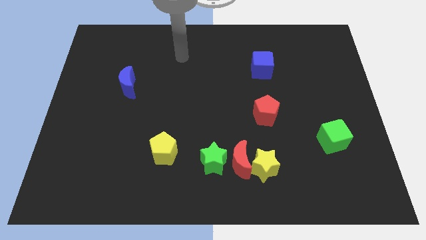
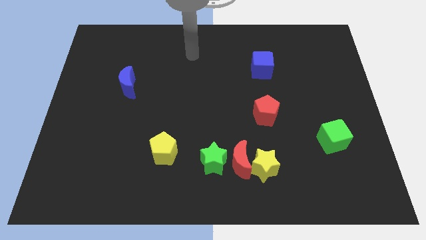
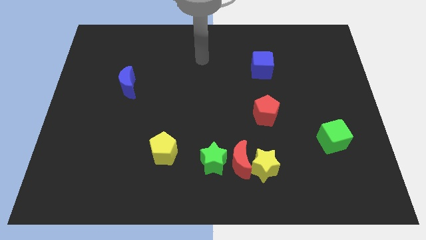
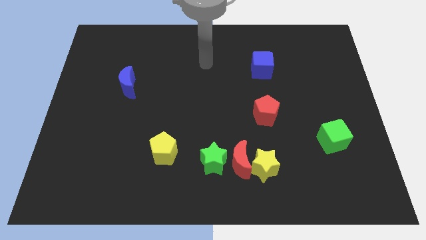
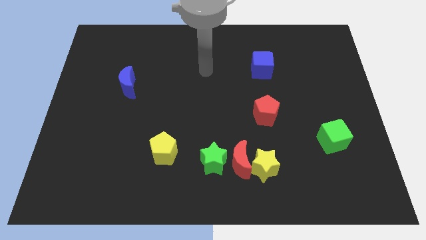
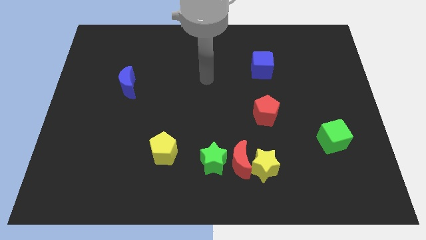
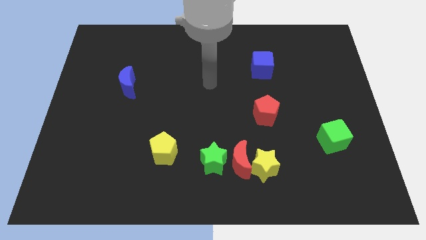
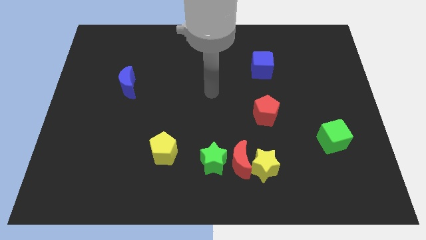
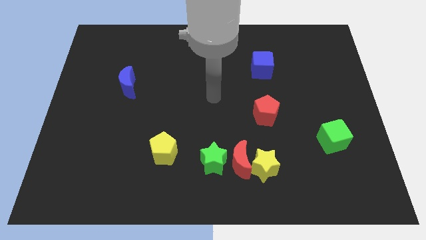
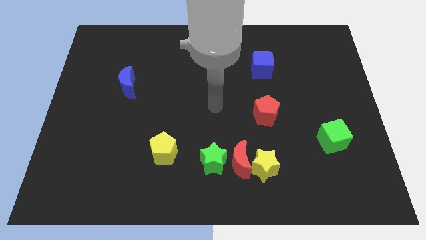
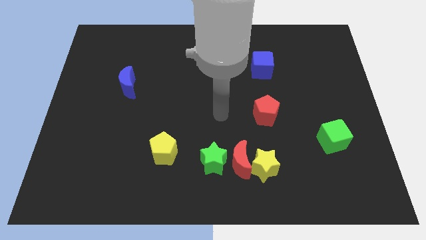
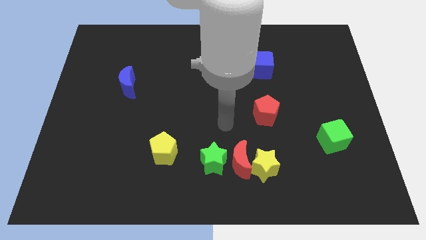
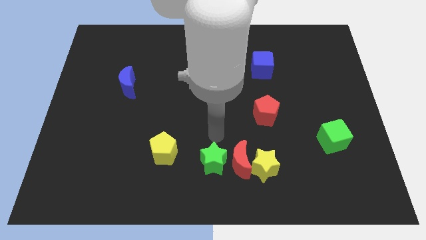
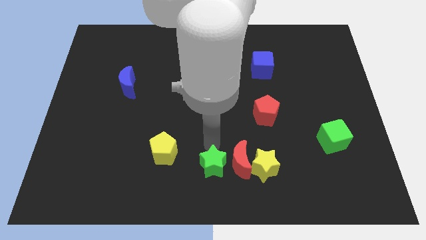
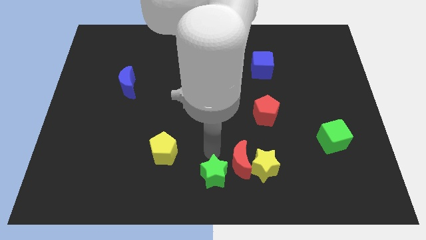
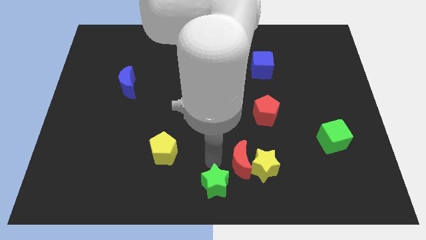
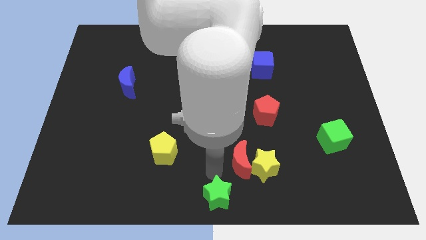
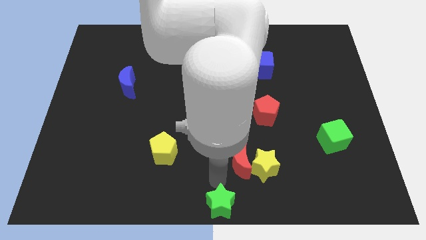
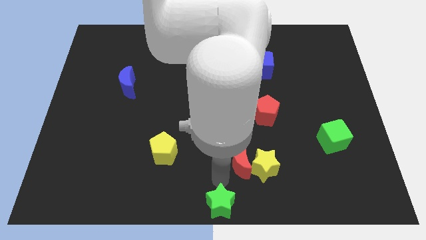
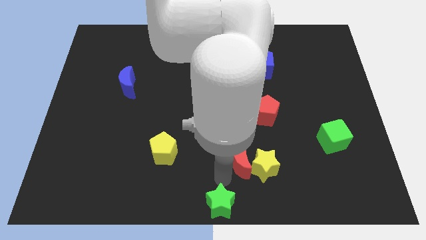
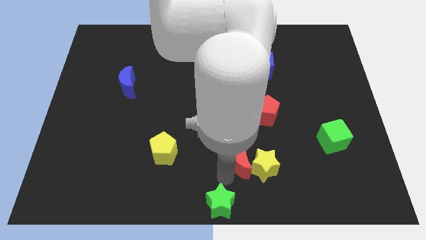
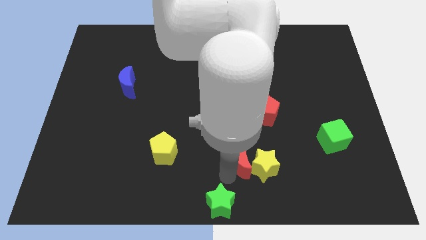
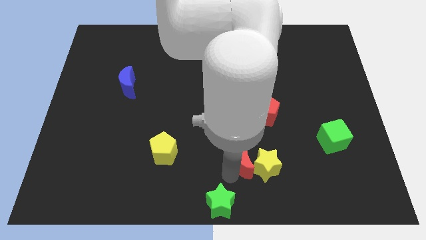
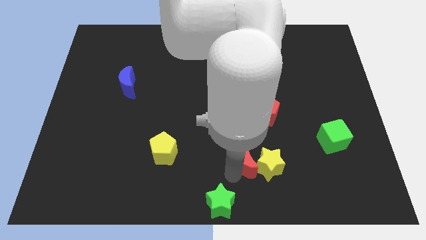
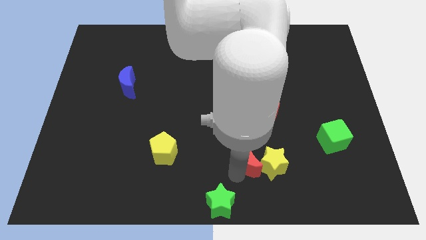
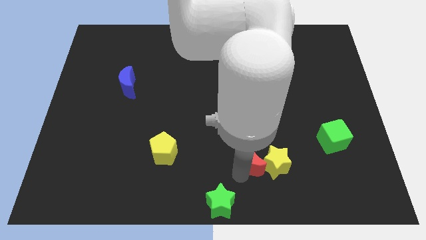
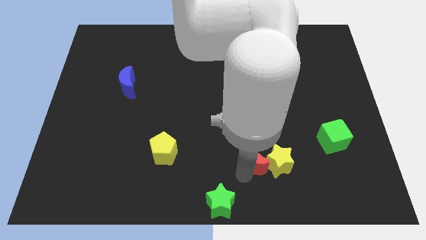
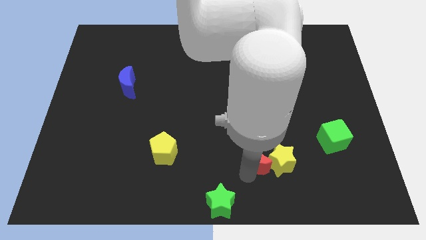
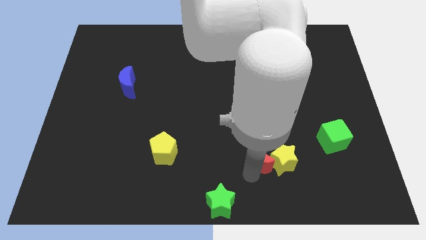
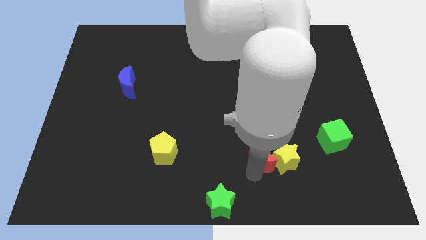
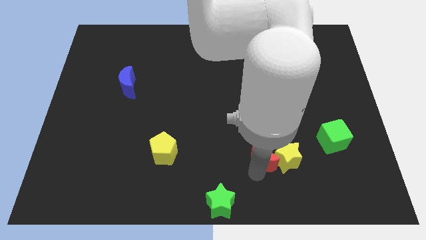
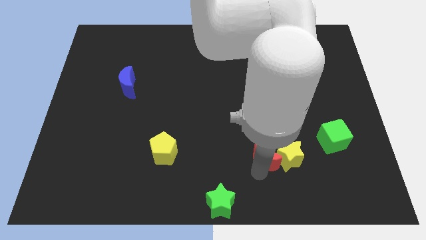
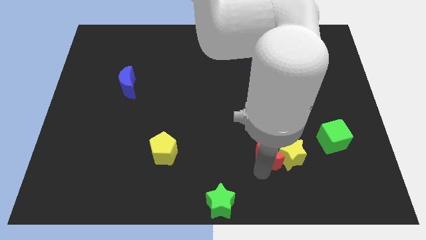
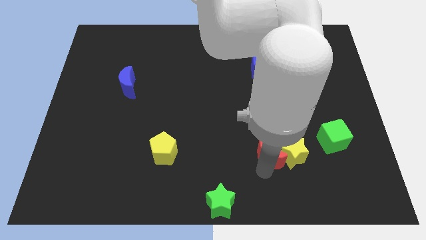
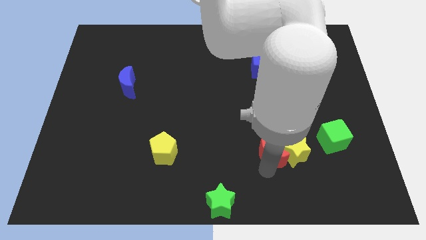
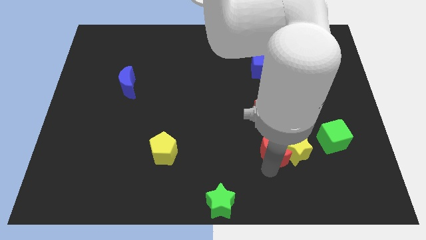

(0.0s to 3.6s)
slightly slide the red moon to the right

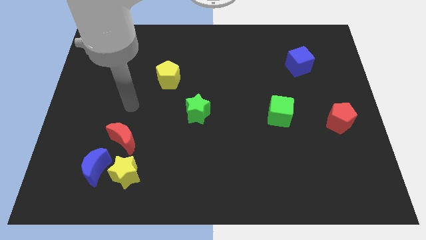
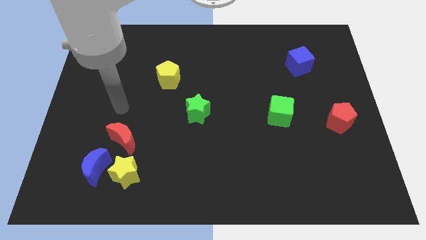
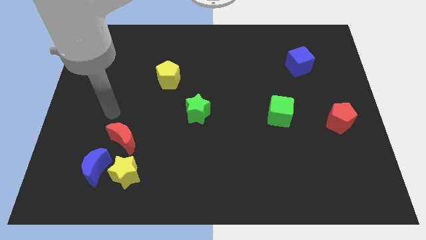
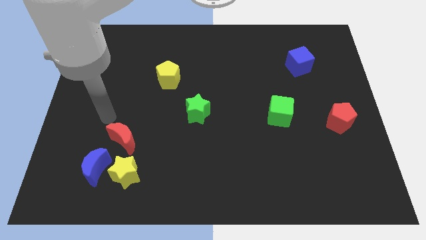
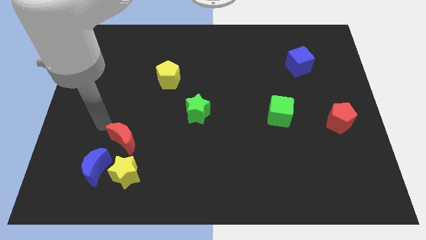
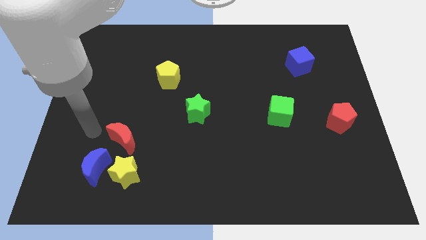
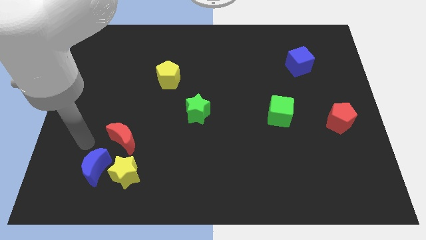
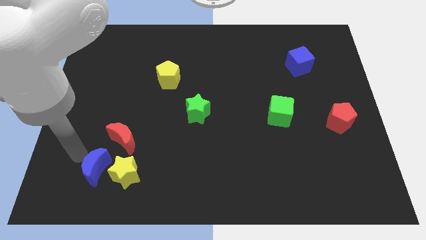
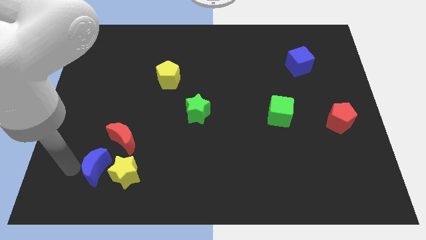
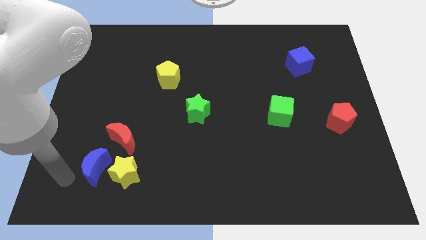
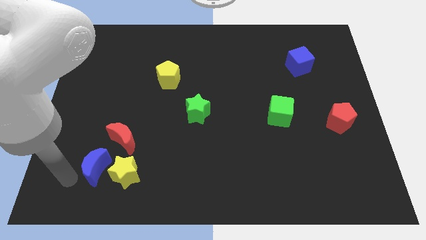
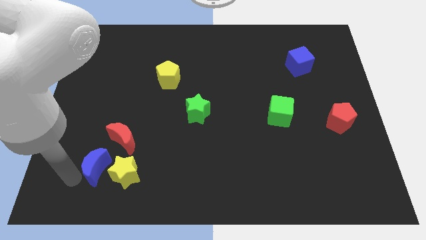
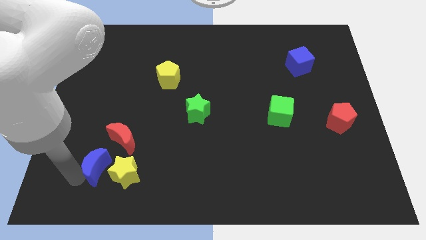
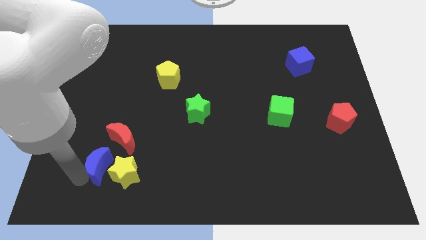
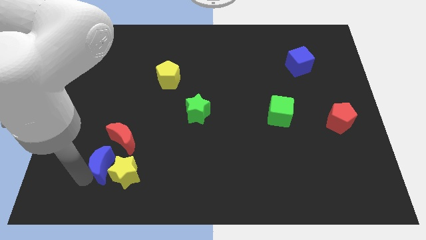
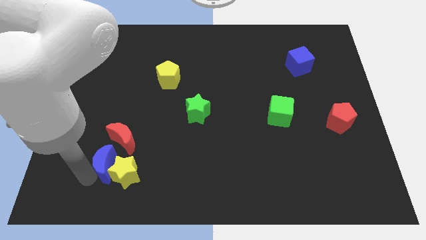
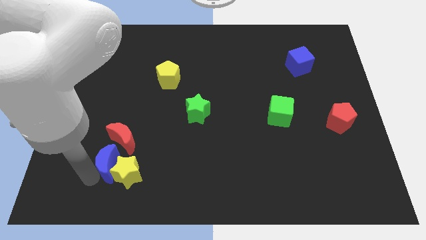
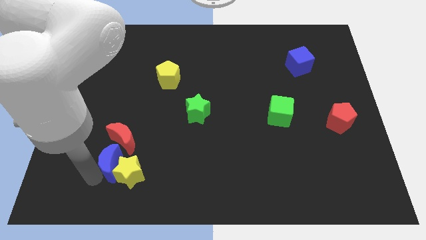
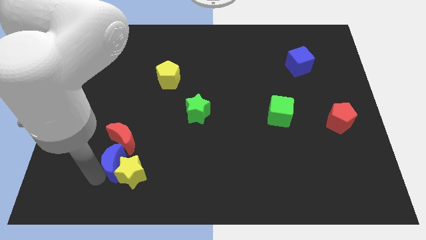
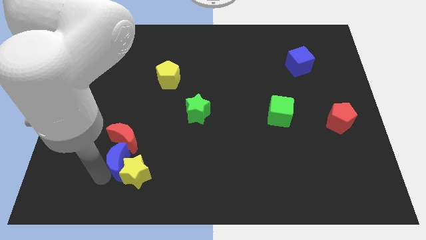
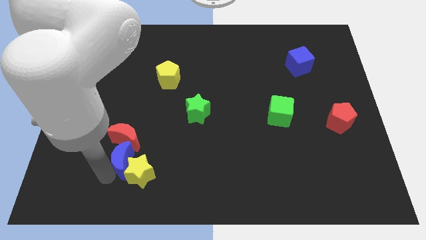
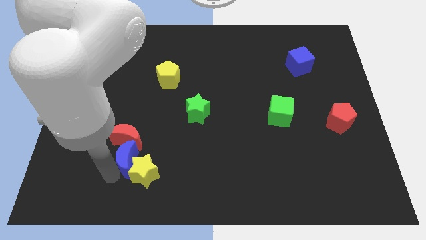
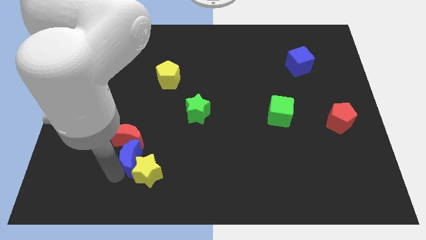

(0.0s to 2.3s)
push the blue moon right slightly

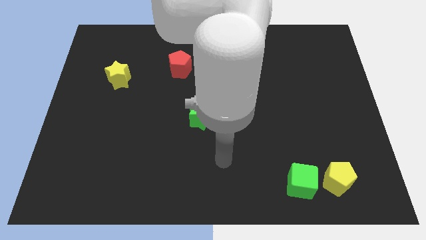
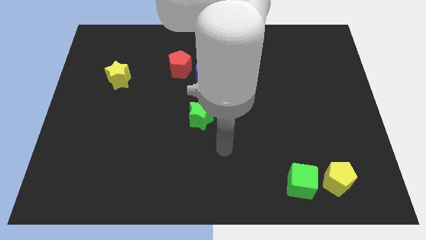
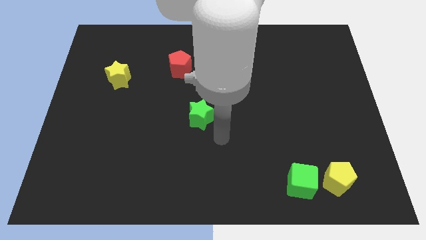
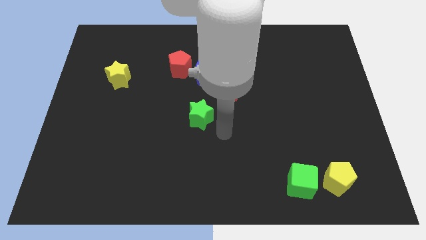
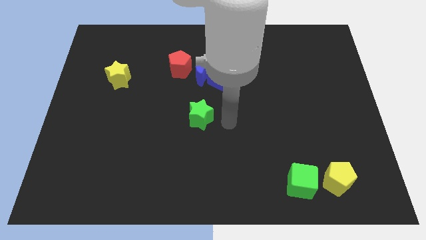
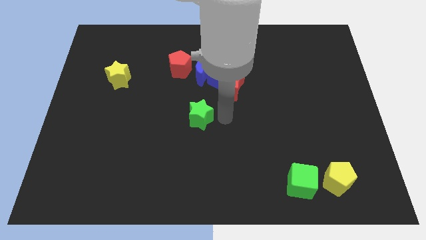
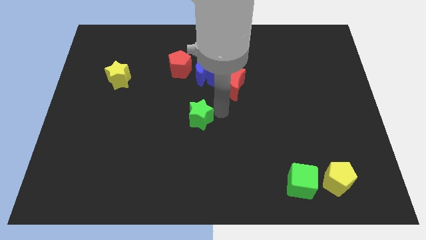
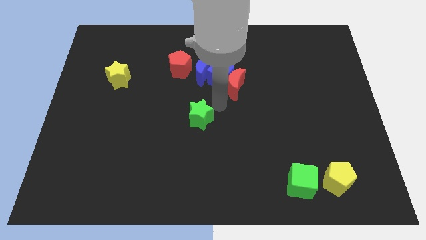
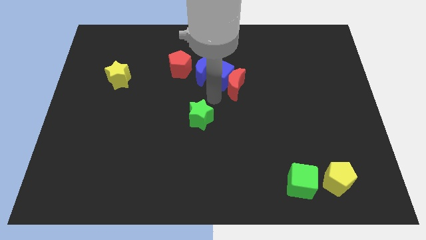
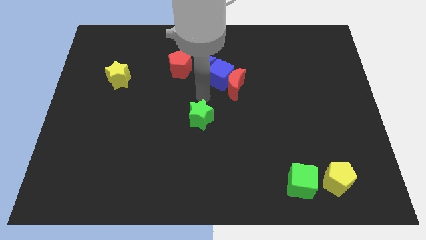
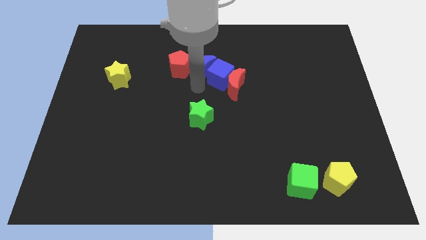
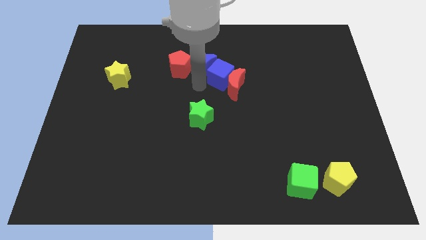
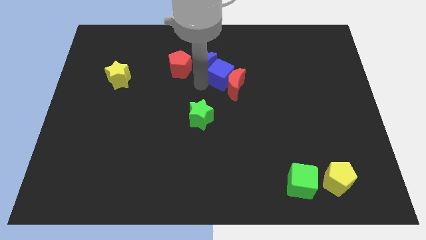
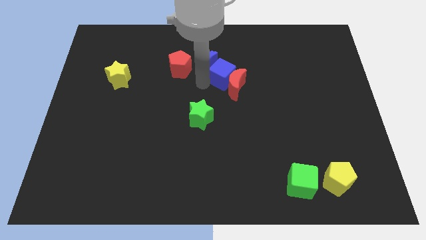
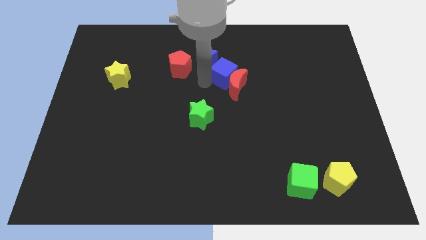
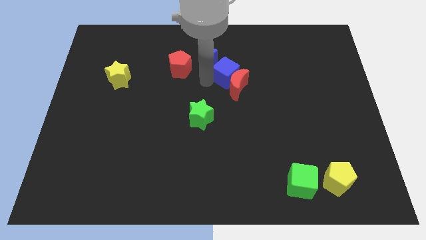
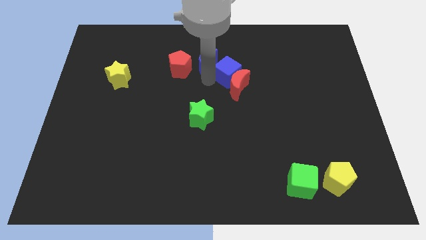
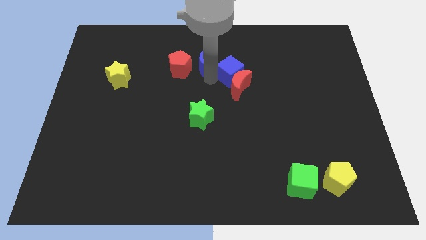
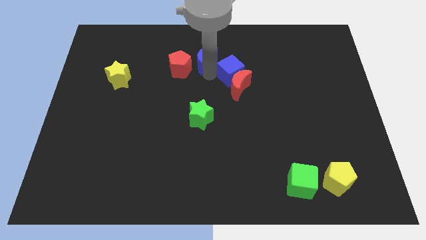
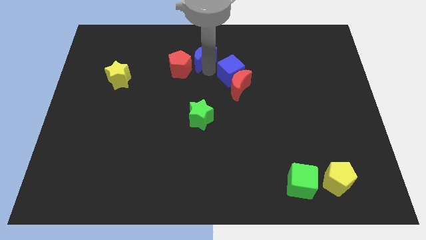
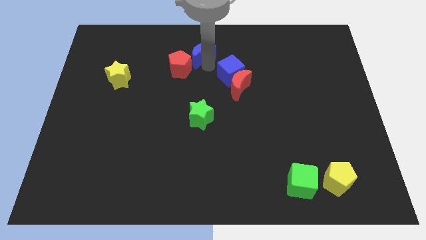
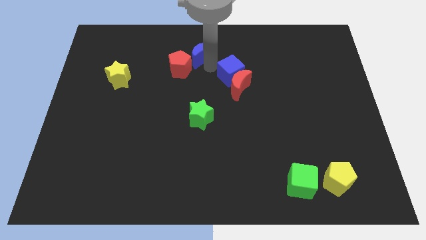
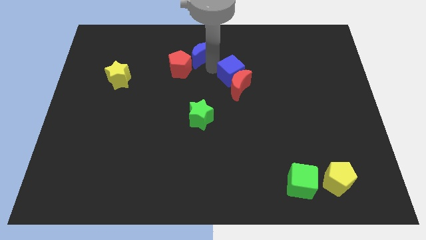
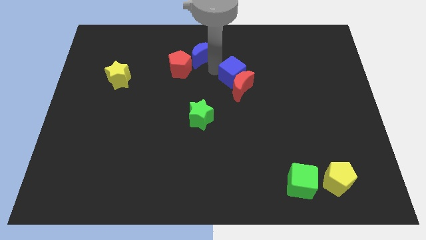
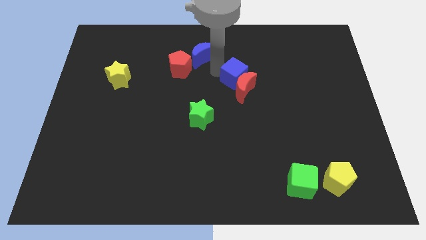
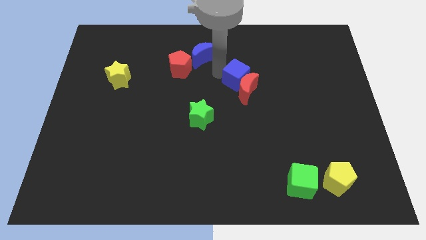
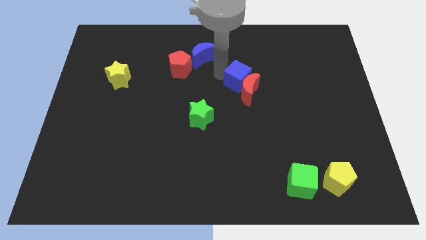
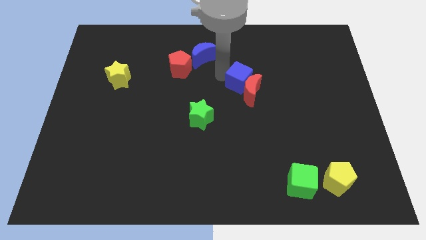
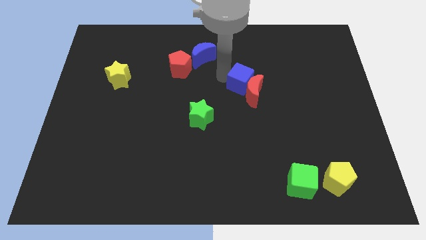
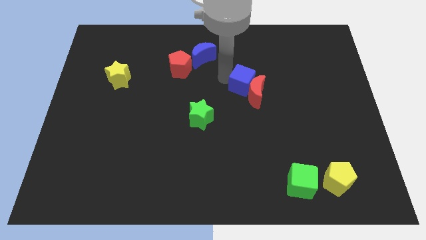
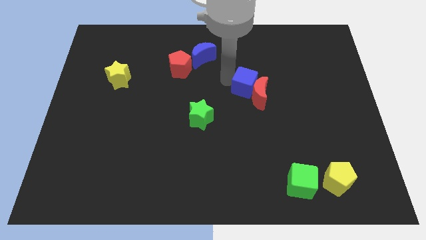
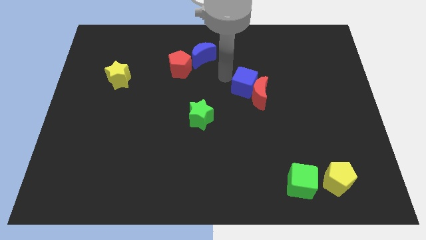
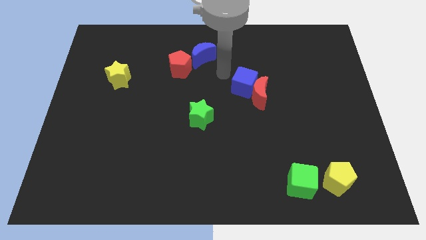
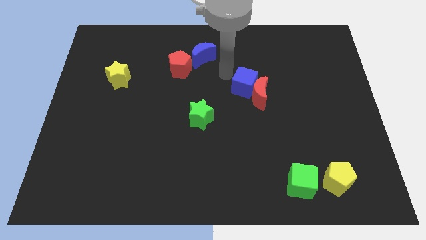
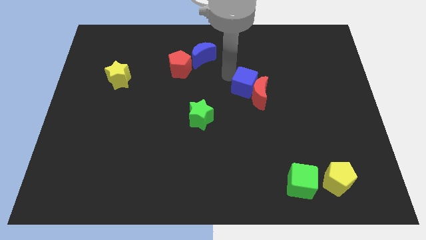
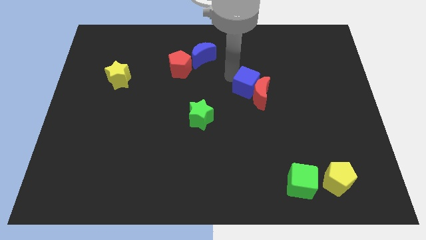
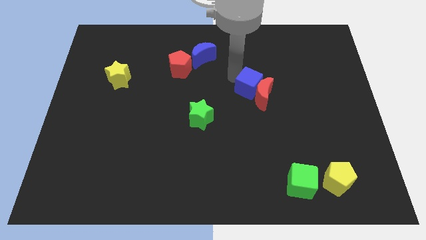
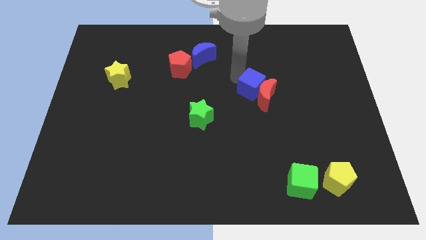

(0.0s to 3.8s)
move the blue cube diagonally downwards and to the right a little
